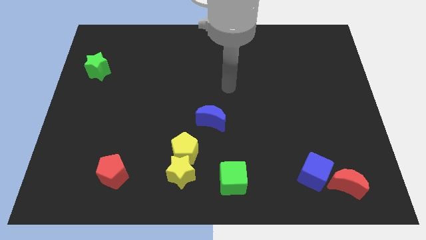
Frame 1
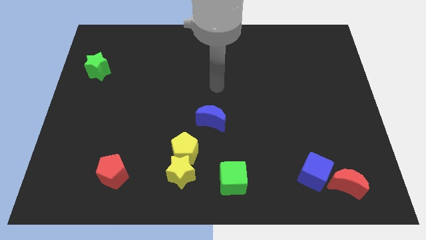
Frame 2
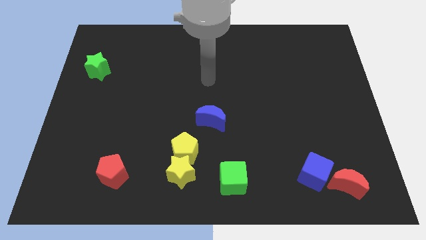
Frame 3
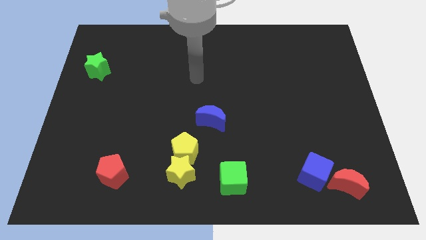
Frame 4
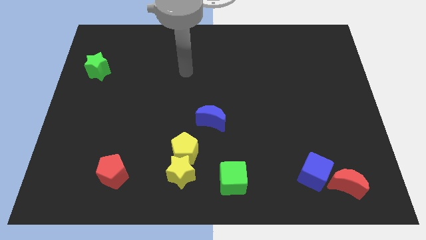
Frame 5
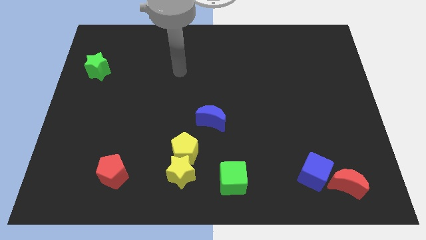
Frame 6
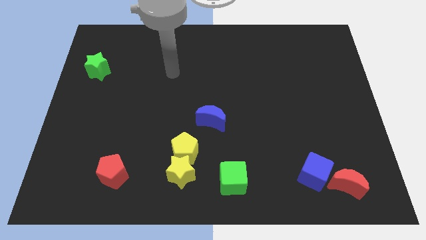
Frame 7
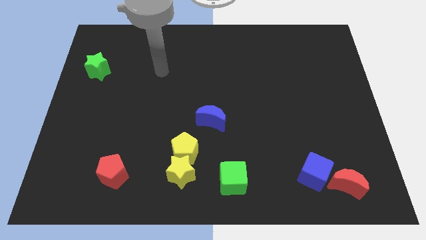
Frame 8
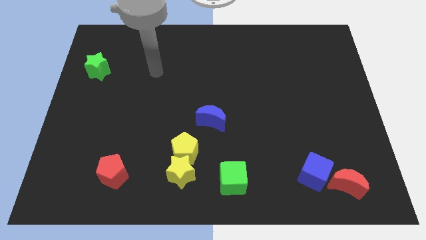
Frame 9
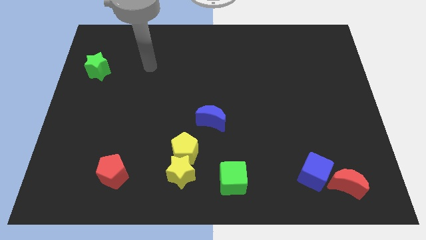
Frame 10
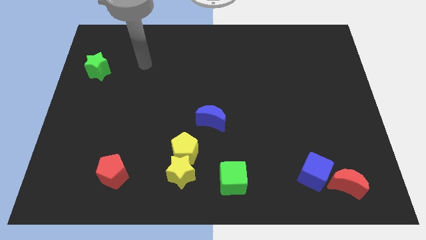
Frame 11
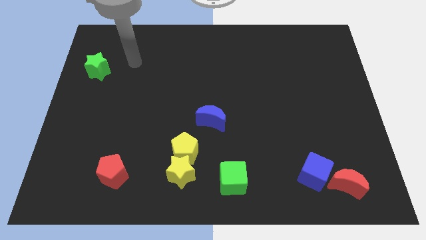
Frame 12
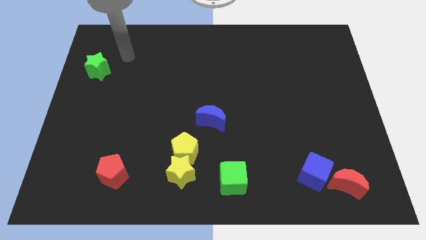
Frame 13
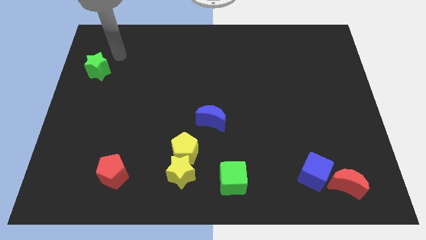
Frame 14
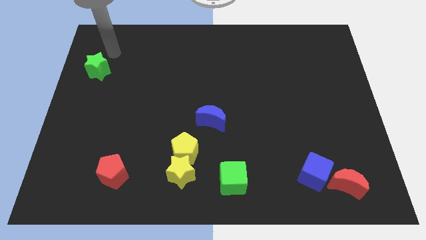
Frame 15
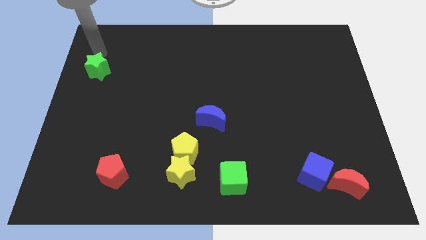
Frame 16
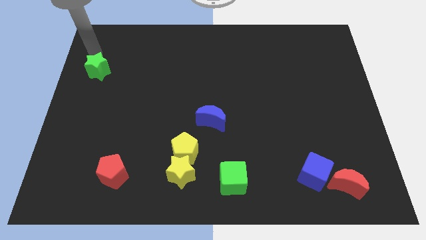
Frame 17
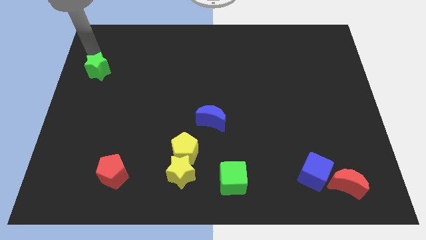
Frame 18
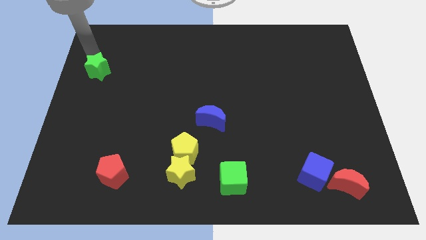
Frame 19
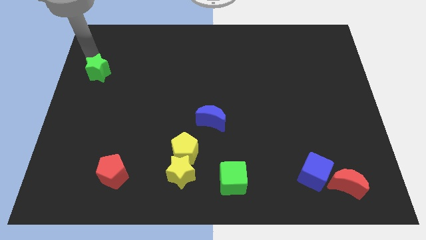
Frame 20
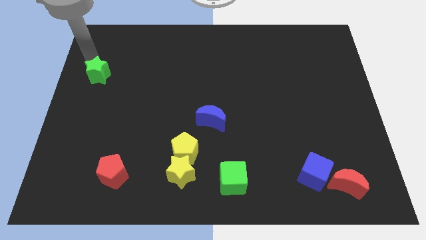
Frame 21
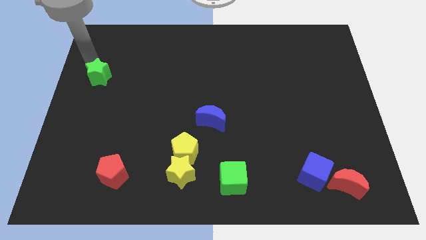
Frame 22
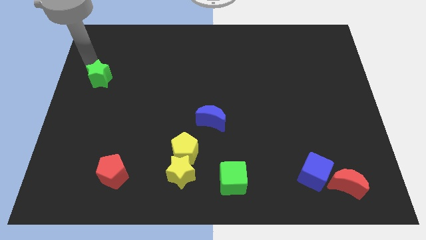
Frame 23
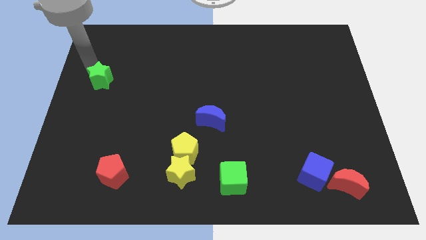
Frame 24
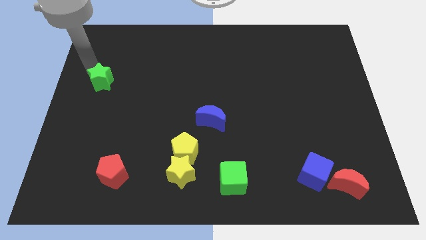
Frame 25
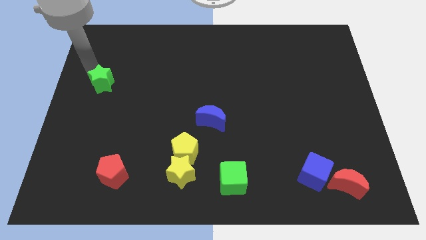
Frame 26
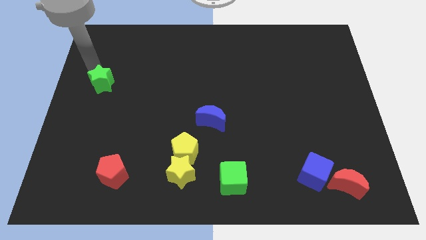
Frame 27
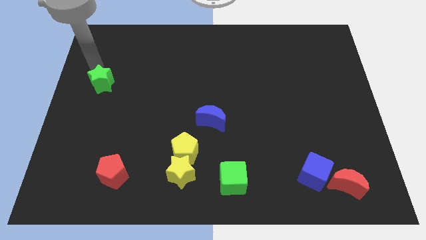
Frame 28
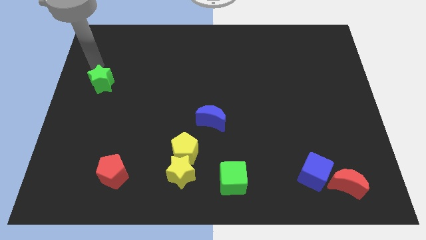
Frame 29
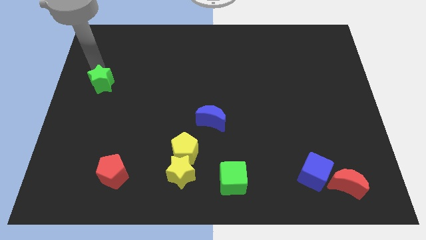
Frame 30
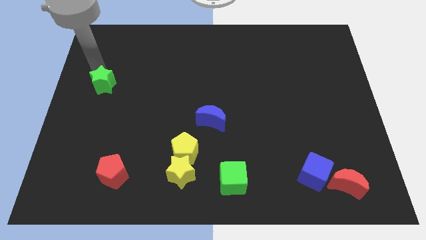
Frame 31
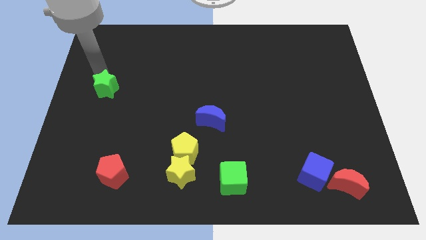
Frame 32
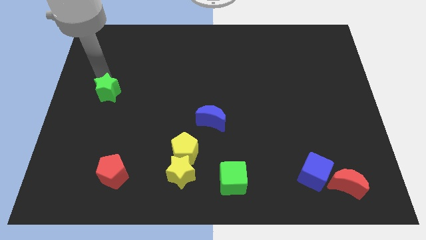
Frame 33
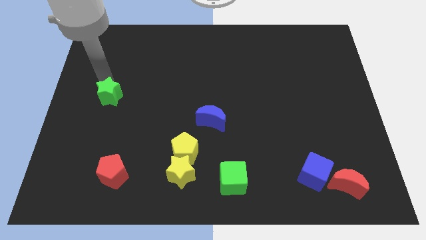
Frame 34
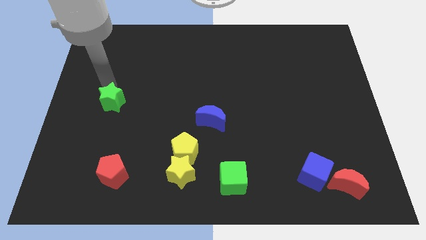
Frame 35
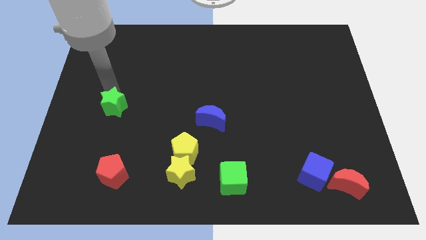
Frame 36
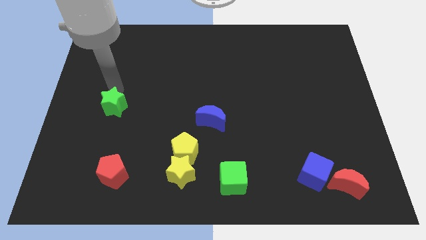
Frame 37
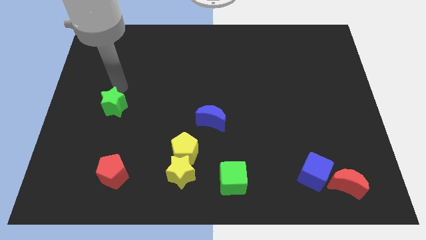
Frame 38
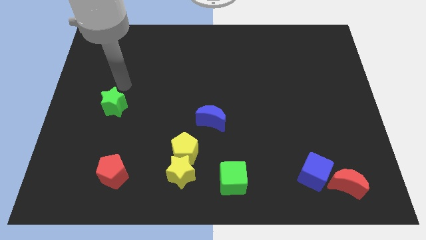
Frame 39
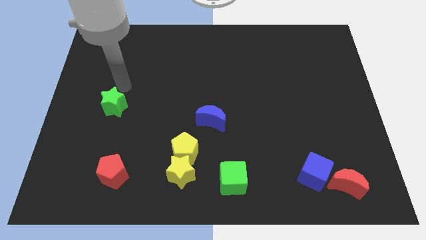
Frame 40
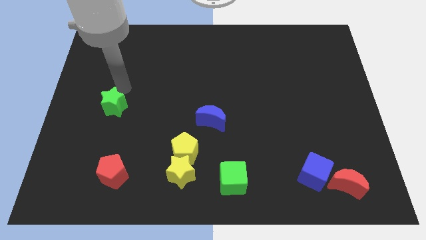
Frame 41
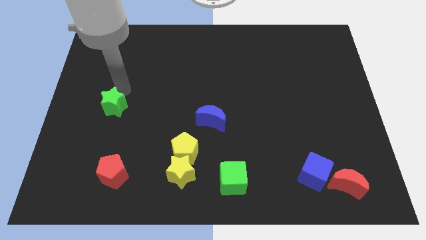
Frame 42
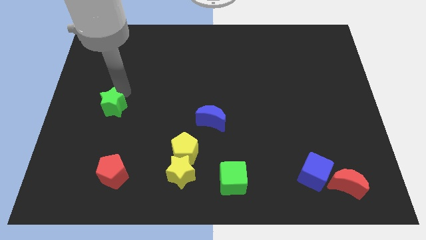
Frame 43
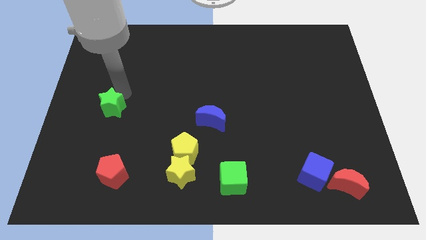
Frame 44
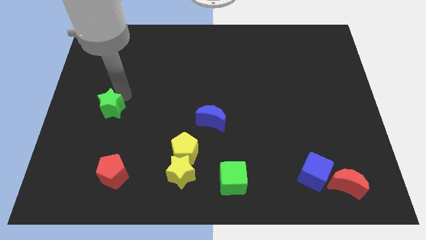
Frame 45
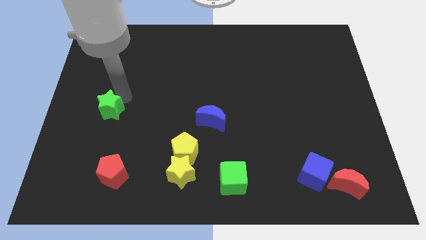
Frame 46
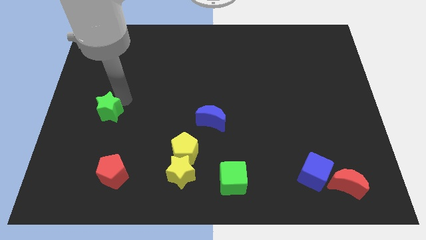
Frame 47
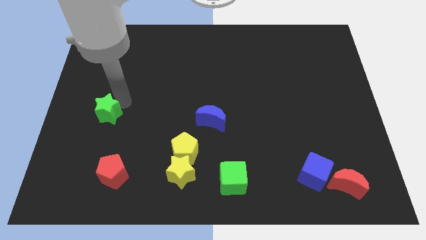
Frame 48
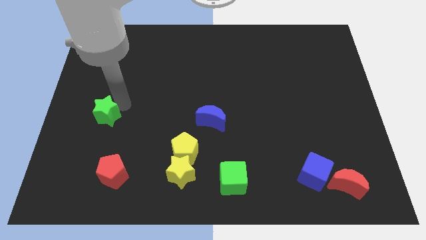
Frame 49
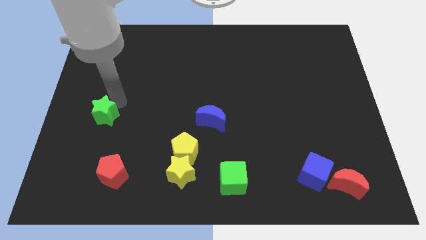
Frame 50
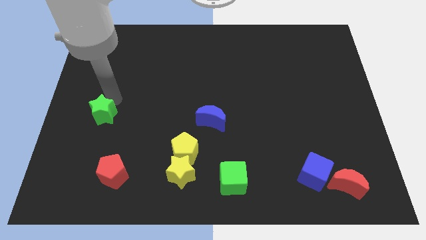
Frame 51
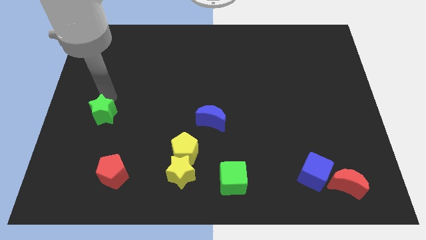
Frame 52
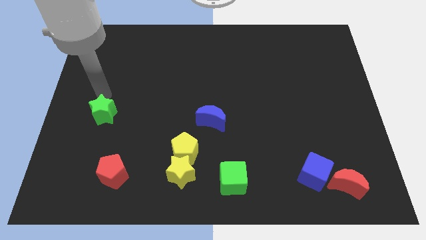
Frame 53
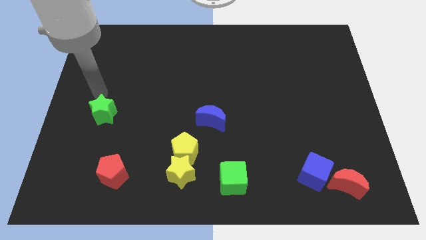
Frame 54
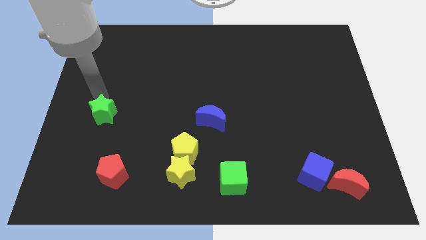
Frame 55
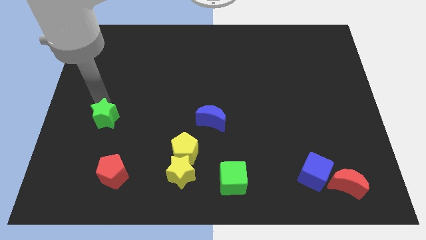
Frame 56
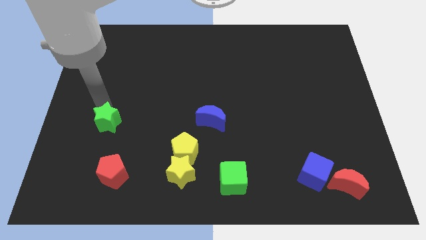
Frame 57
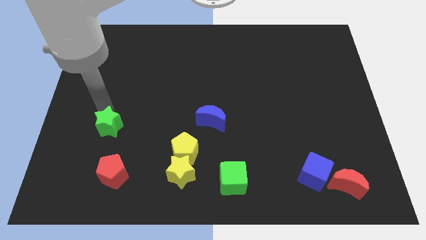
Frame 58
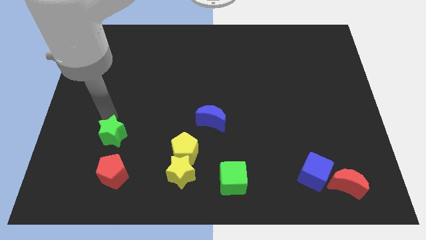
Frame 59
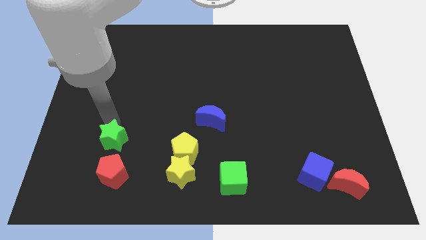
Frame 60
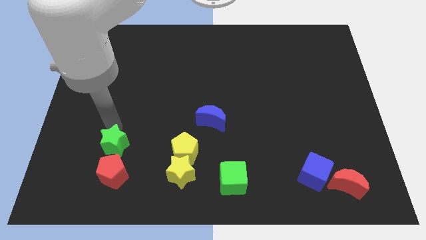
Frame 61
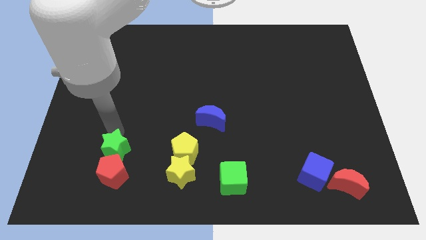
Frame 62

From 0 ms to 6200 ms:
put the green star close to the red pentagon
